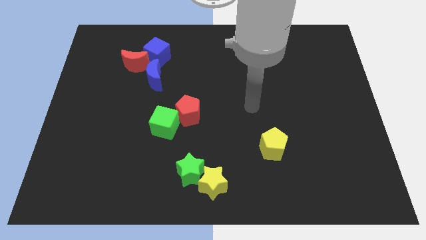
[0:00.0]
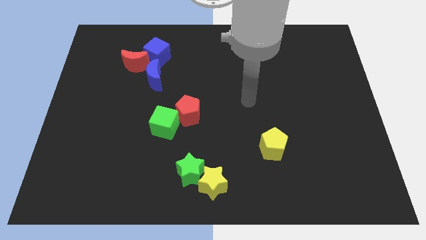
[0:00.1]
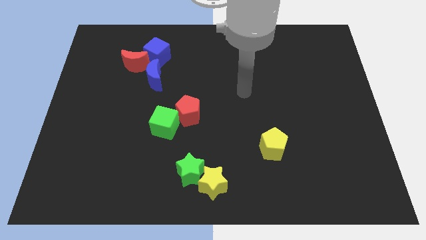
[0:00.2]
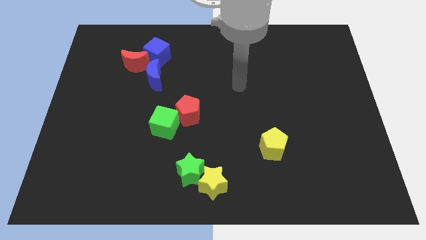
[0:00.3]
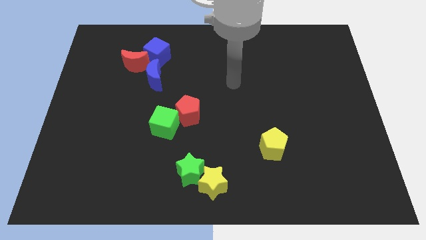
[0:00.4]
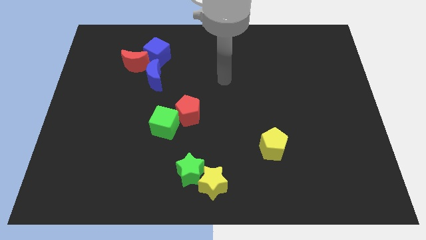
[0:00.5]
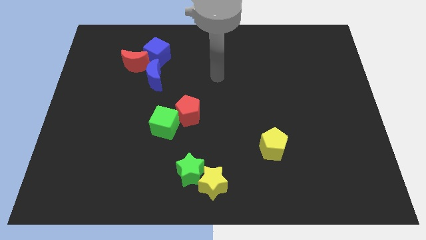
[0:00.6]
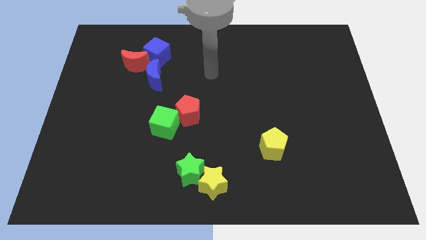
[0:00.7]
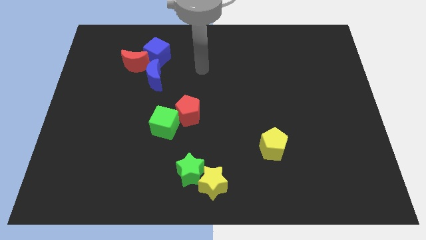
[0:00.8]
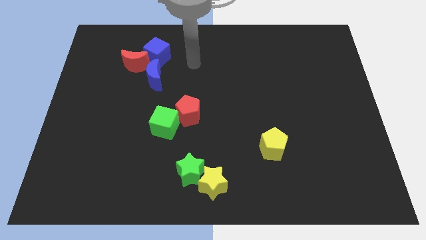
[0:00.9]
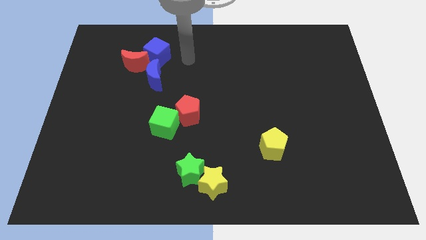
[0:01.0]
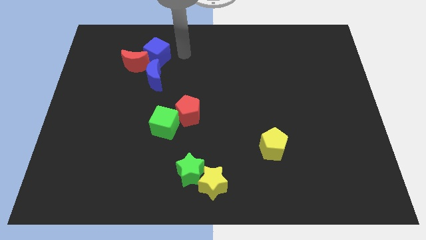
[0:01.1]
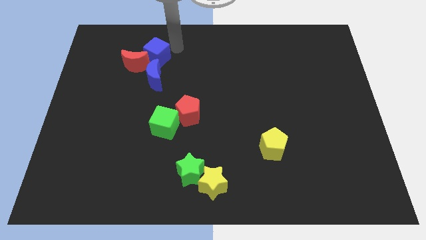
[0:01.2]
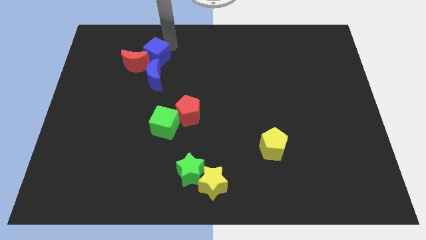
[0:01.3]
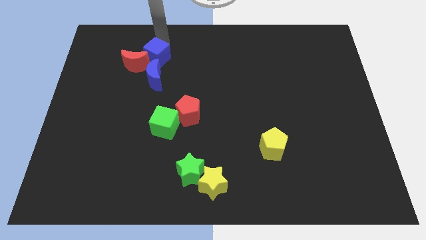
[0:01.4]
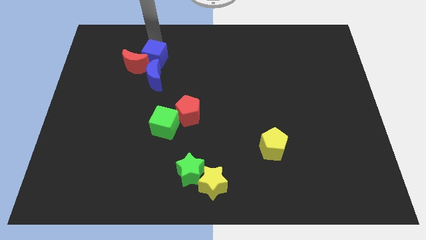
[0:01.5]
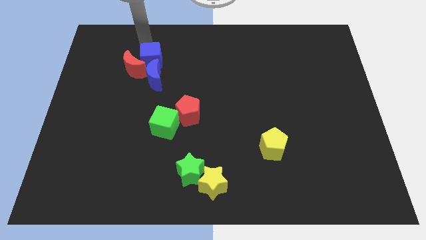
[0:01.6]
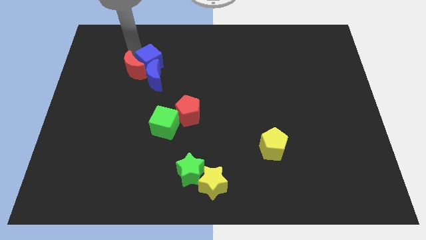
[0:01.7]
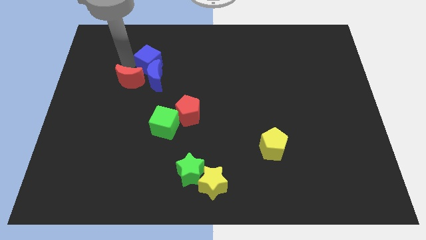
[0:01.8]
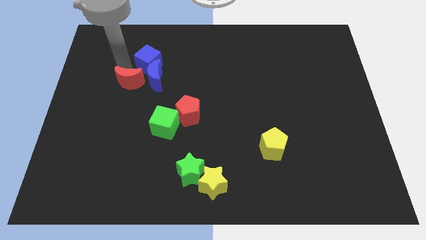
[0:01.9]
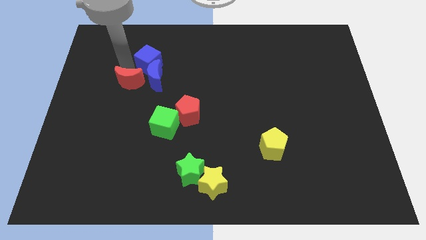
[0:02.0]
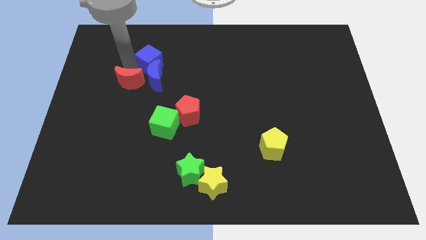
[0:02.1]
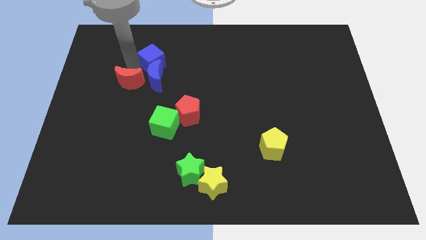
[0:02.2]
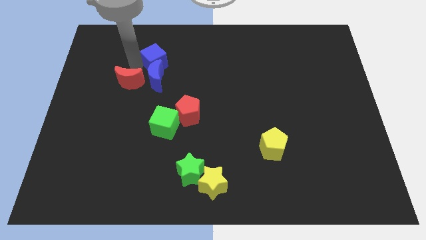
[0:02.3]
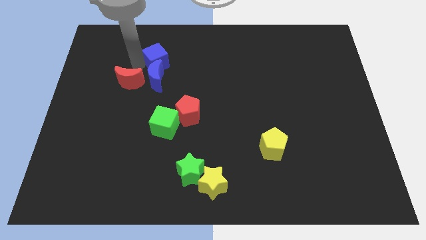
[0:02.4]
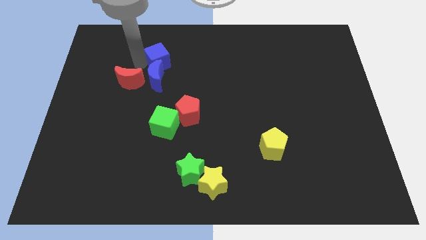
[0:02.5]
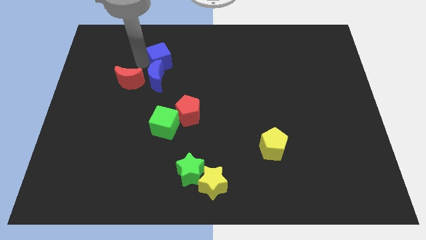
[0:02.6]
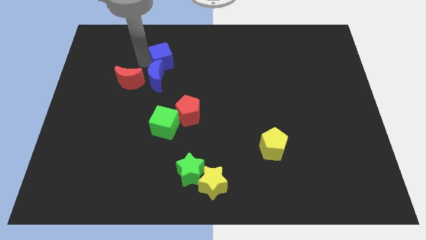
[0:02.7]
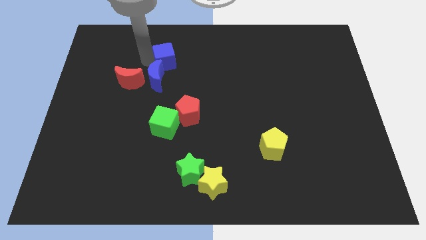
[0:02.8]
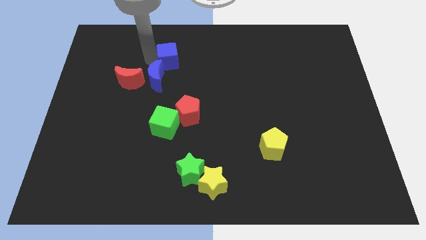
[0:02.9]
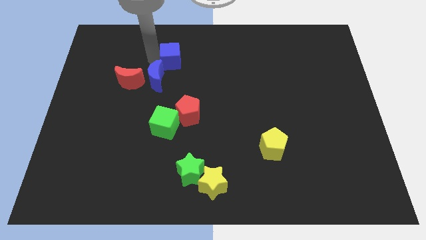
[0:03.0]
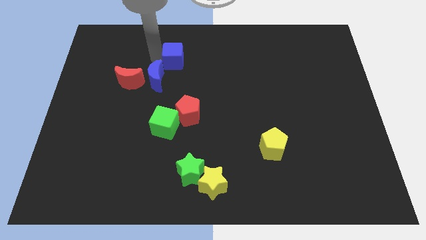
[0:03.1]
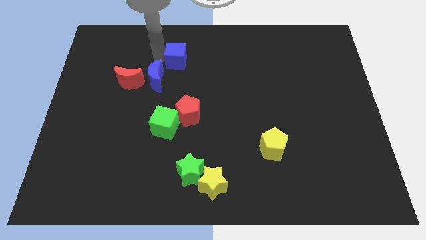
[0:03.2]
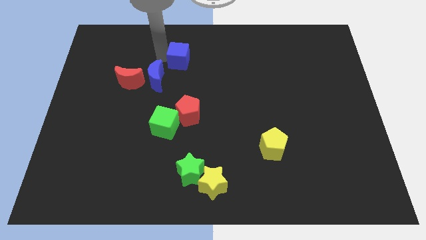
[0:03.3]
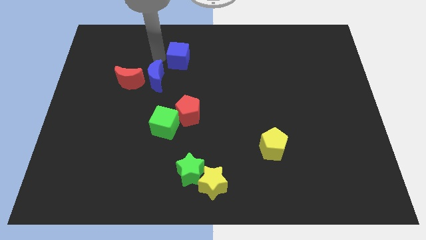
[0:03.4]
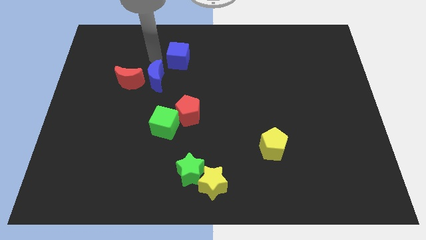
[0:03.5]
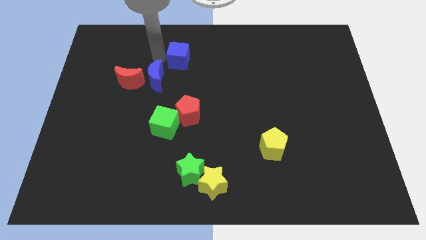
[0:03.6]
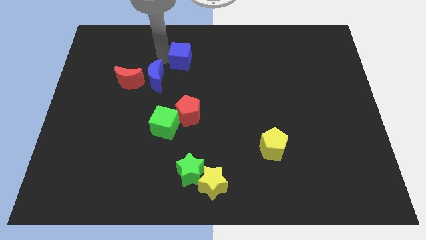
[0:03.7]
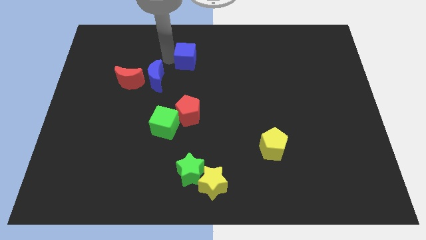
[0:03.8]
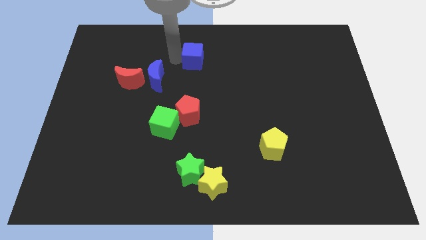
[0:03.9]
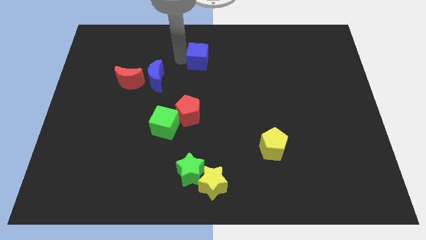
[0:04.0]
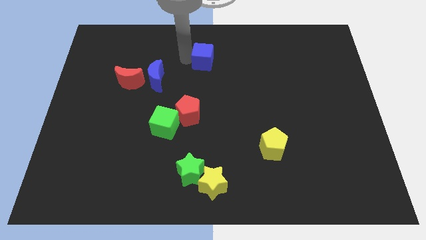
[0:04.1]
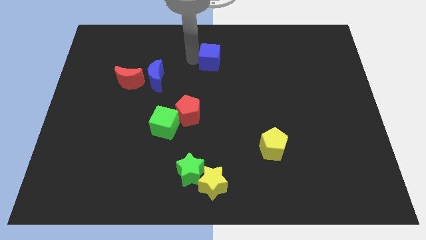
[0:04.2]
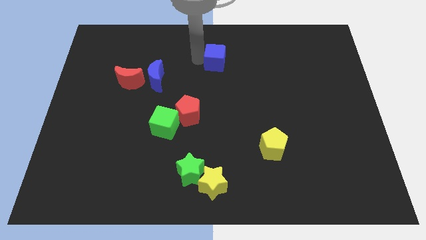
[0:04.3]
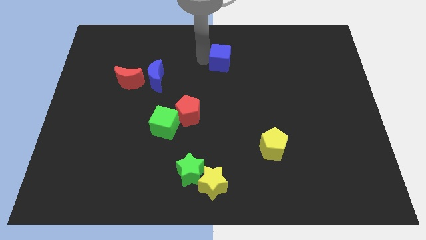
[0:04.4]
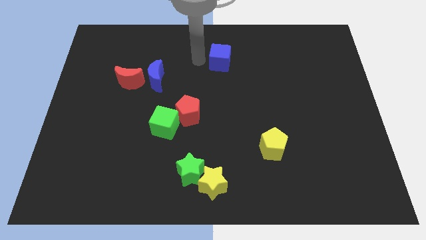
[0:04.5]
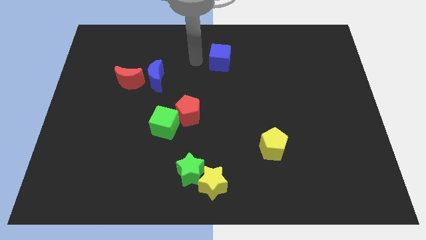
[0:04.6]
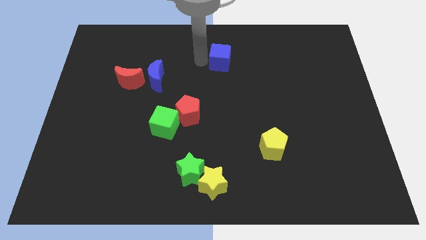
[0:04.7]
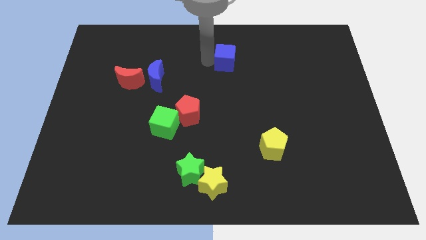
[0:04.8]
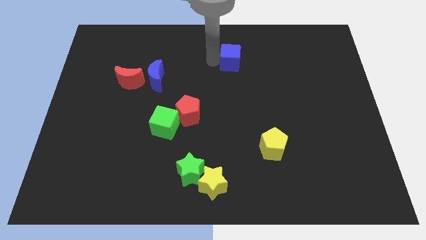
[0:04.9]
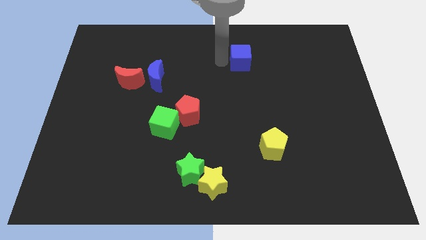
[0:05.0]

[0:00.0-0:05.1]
slide the blue cube right

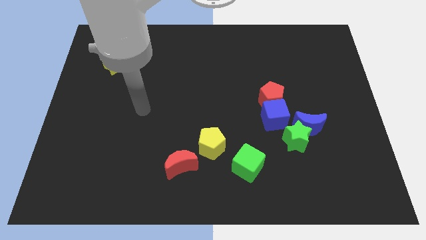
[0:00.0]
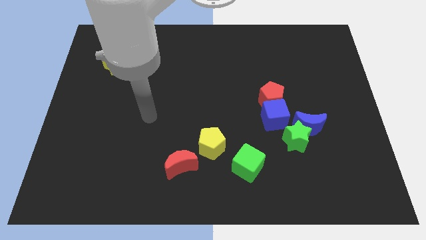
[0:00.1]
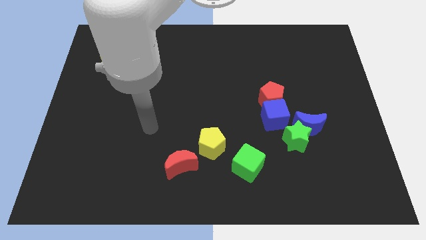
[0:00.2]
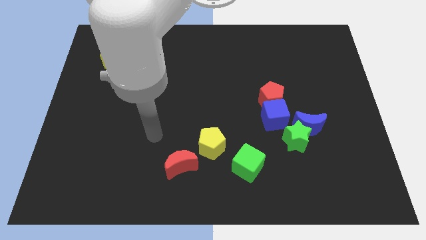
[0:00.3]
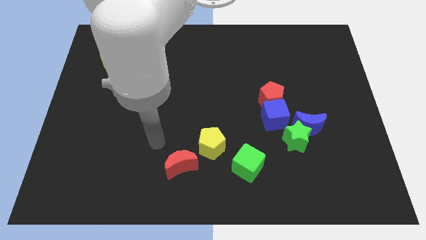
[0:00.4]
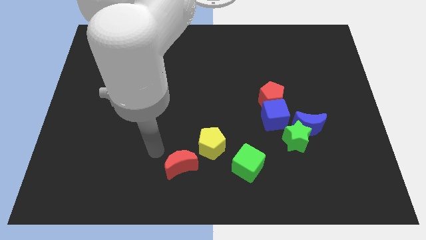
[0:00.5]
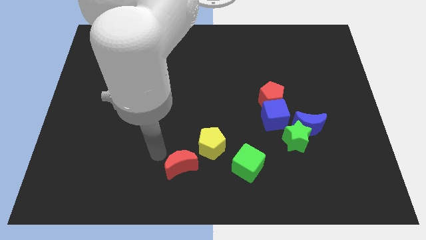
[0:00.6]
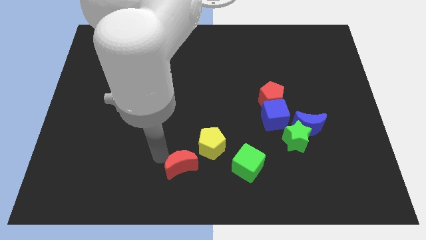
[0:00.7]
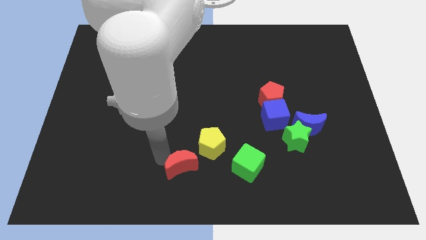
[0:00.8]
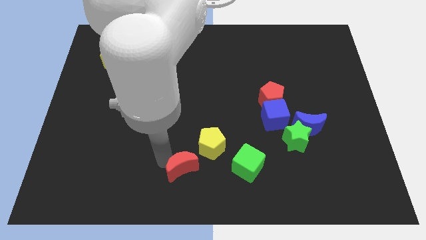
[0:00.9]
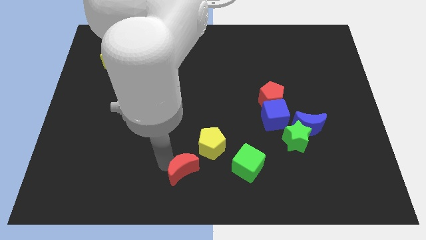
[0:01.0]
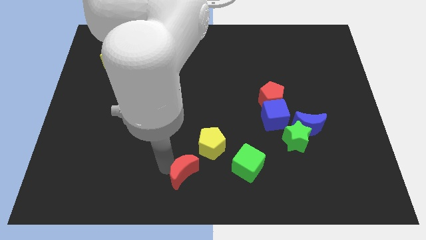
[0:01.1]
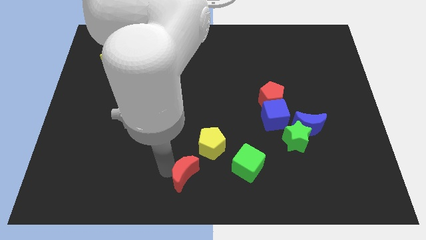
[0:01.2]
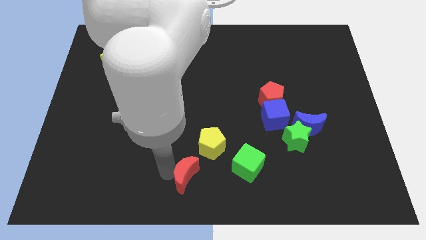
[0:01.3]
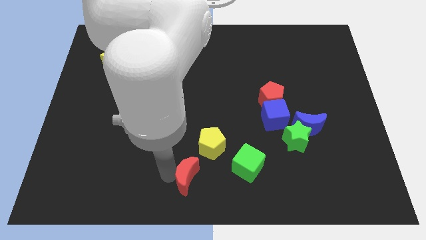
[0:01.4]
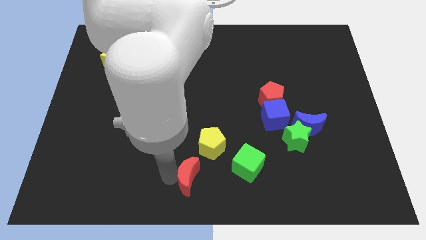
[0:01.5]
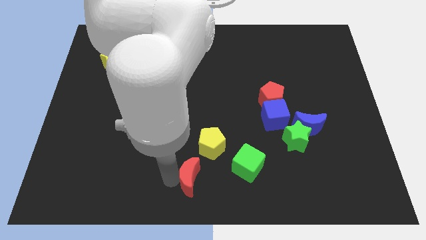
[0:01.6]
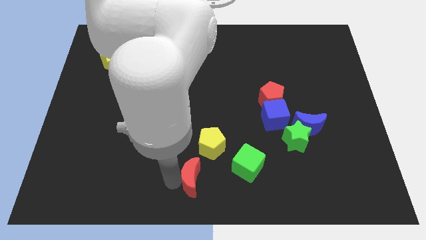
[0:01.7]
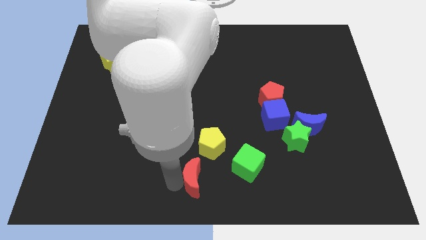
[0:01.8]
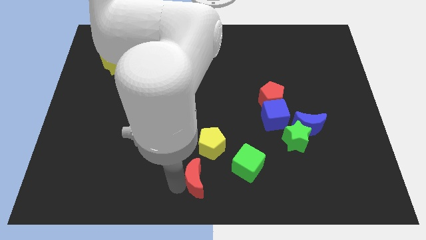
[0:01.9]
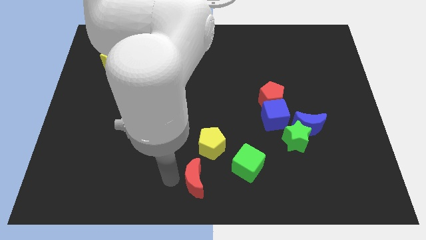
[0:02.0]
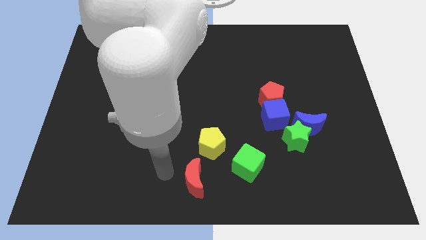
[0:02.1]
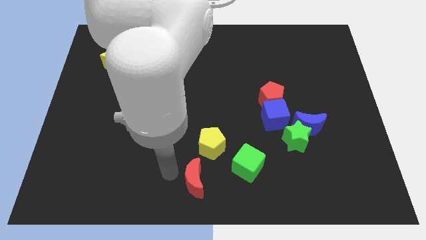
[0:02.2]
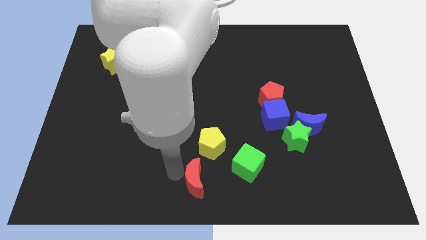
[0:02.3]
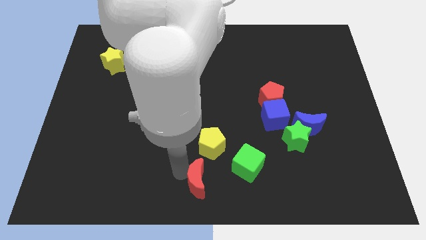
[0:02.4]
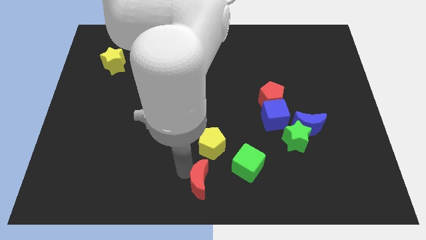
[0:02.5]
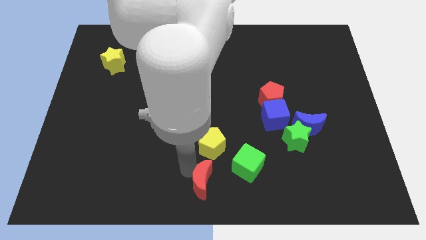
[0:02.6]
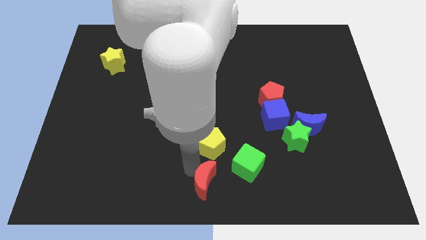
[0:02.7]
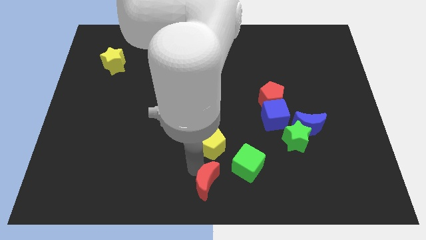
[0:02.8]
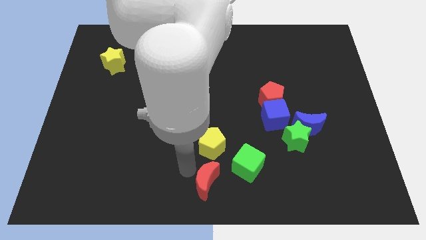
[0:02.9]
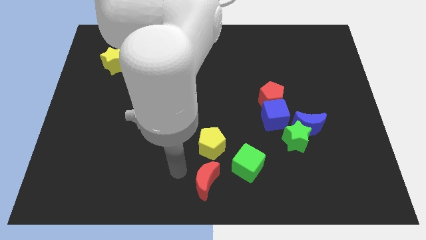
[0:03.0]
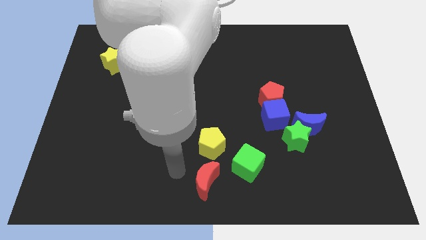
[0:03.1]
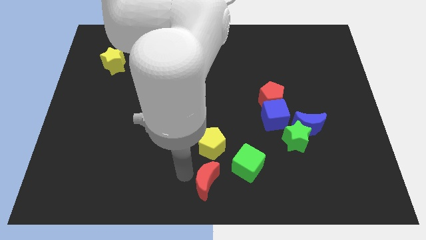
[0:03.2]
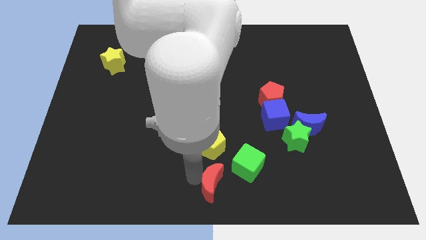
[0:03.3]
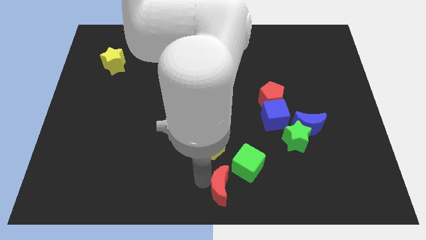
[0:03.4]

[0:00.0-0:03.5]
move the red moon a little right
